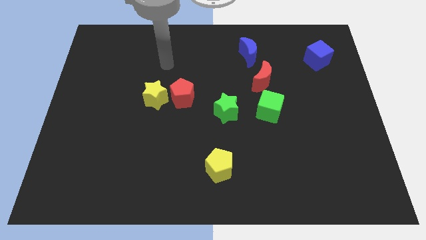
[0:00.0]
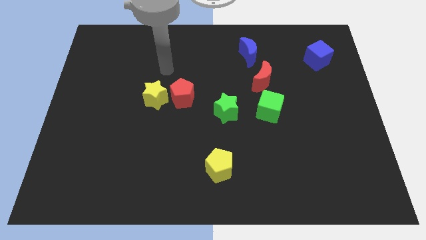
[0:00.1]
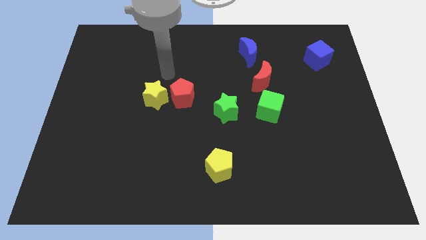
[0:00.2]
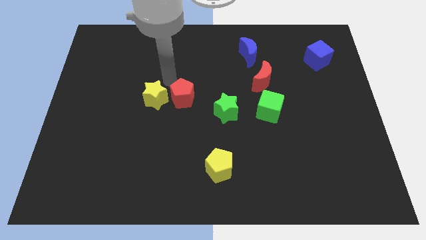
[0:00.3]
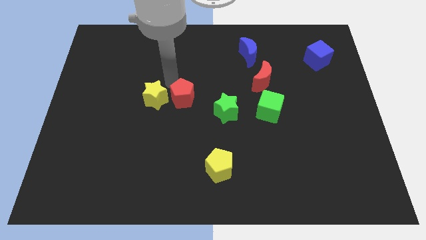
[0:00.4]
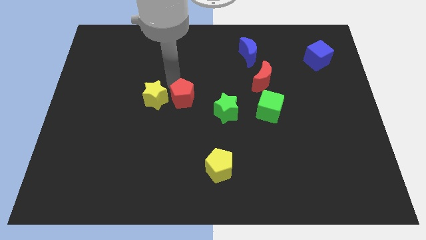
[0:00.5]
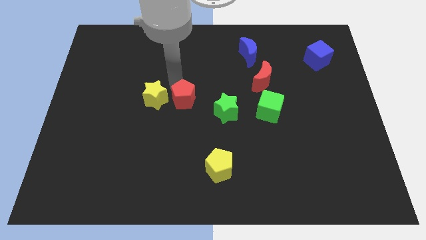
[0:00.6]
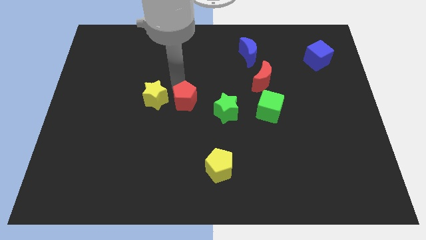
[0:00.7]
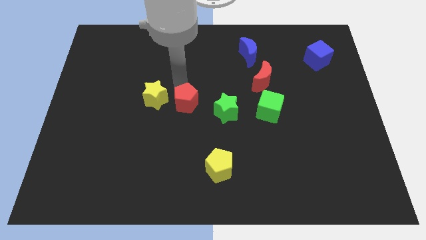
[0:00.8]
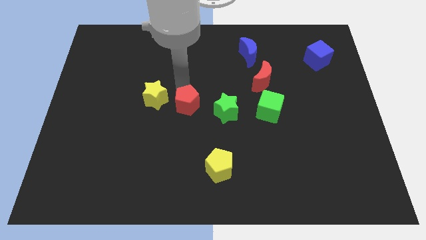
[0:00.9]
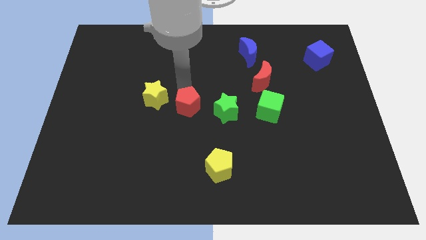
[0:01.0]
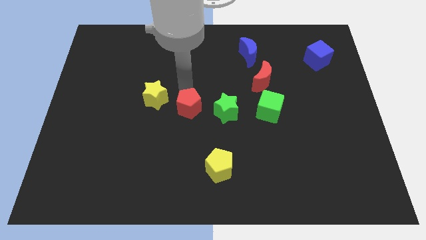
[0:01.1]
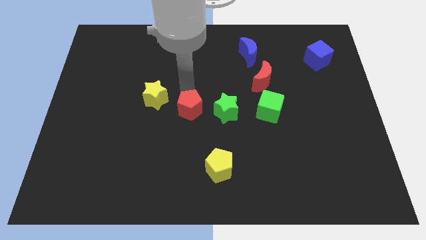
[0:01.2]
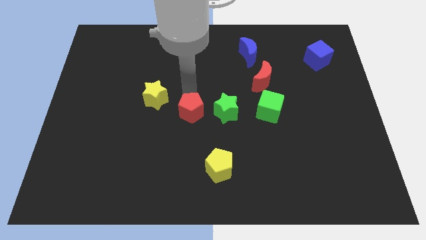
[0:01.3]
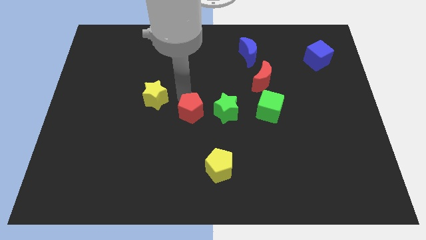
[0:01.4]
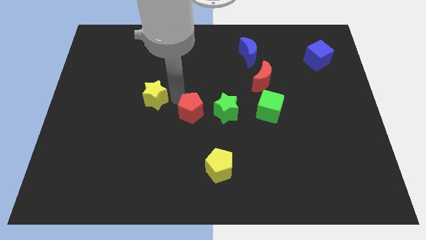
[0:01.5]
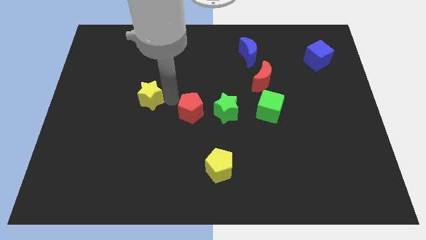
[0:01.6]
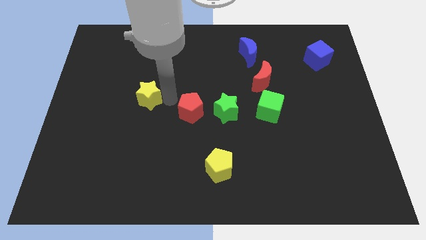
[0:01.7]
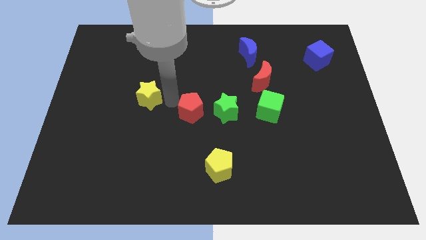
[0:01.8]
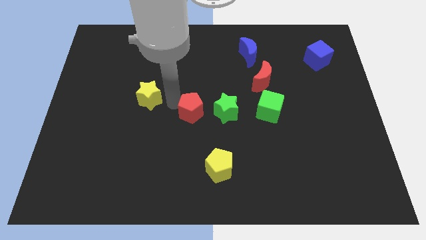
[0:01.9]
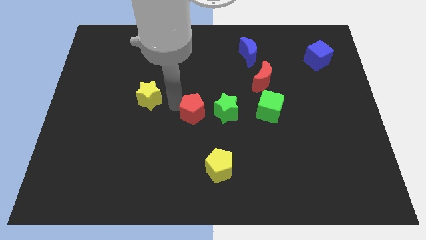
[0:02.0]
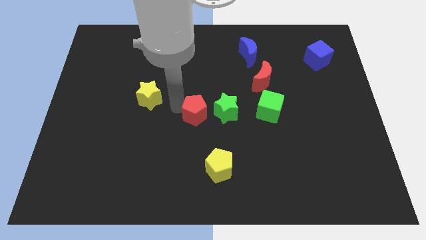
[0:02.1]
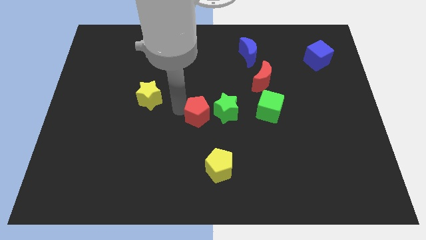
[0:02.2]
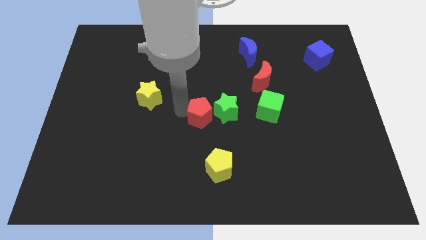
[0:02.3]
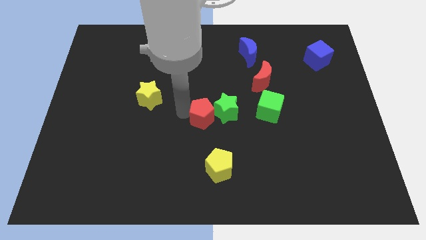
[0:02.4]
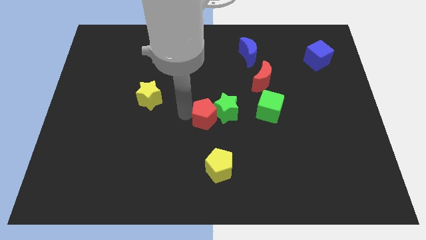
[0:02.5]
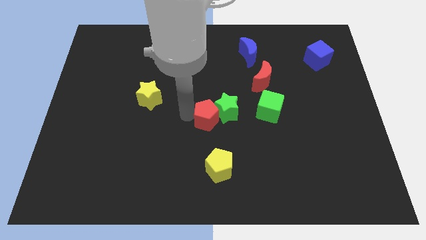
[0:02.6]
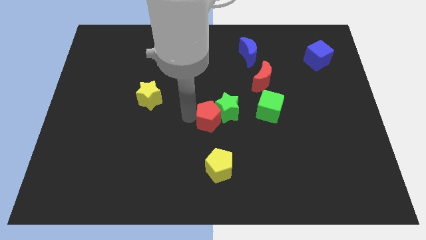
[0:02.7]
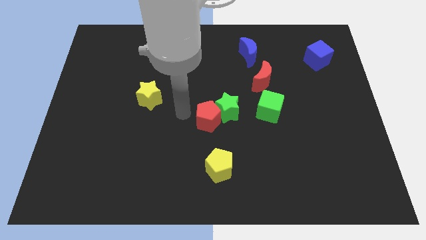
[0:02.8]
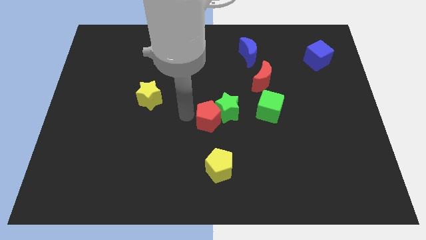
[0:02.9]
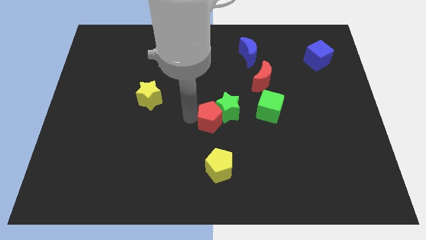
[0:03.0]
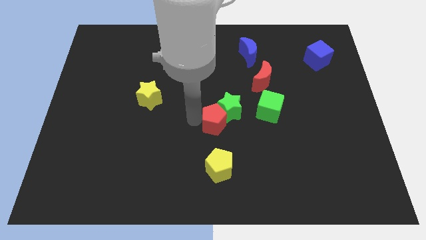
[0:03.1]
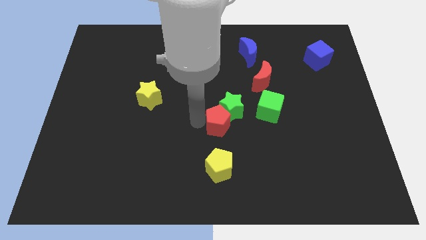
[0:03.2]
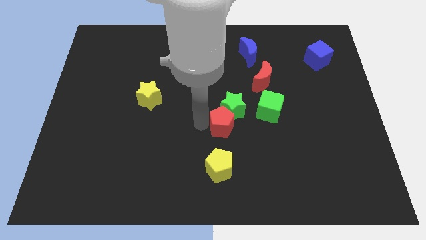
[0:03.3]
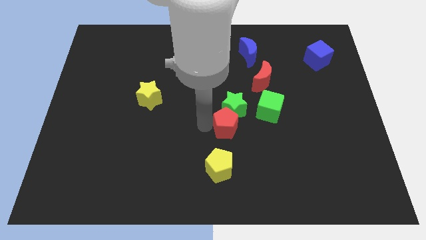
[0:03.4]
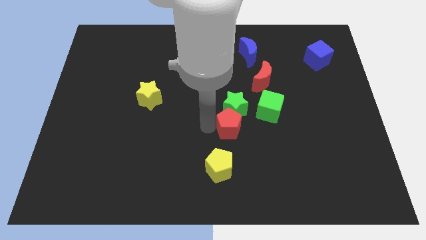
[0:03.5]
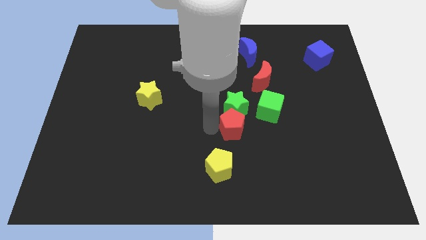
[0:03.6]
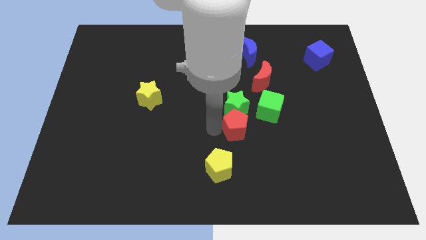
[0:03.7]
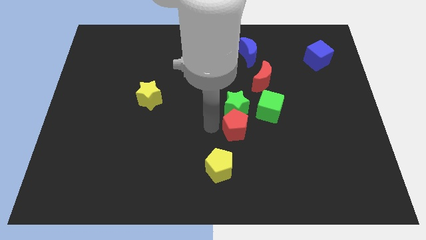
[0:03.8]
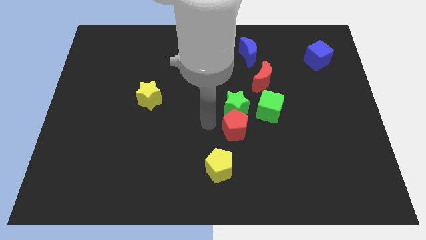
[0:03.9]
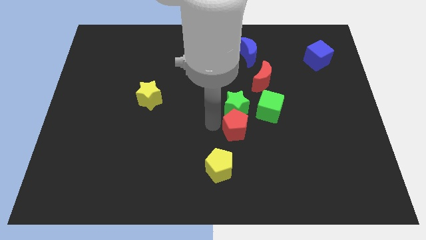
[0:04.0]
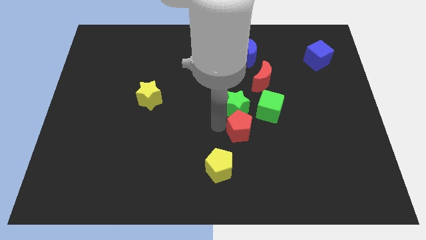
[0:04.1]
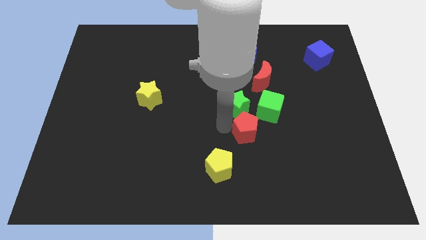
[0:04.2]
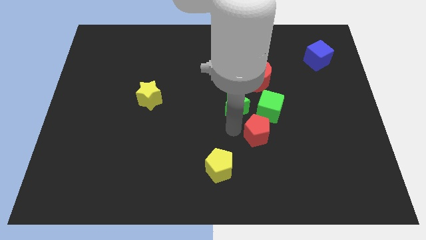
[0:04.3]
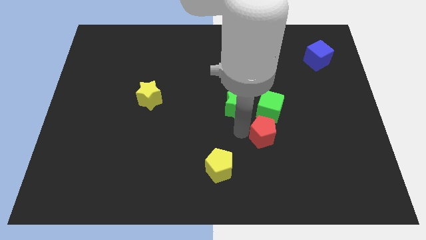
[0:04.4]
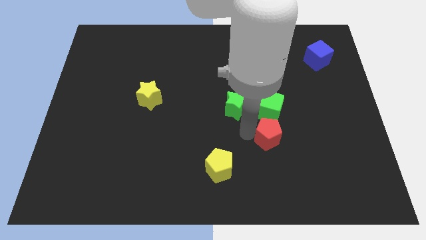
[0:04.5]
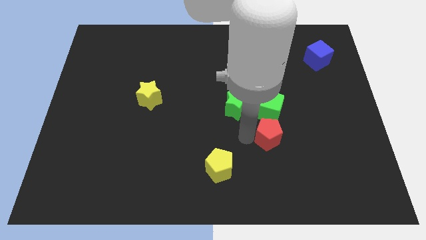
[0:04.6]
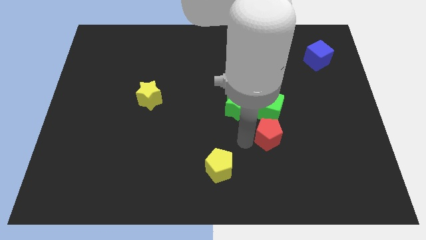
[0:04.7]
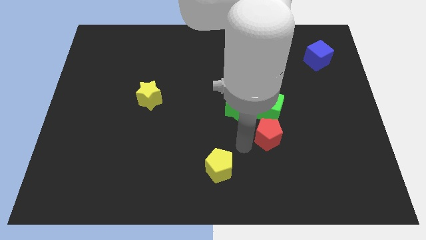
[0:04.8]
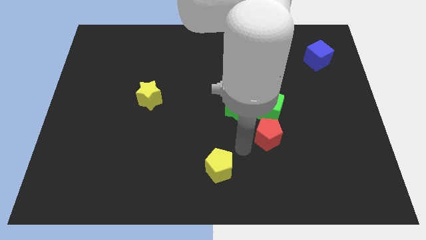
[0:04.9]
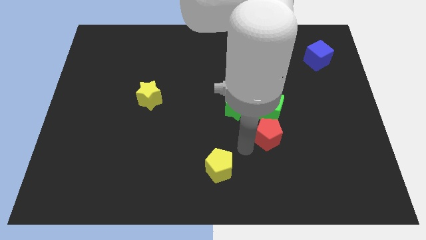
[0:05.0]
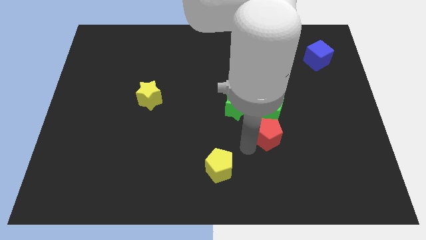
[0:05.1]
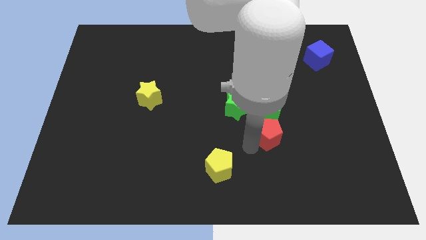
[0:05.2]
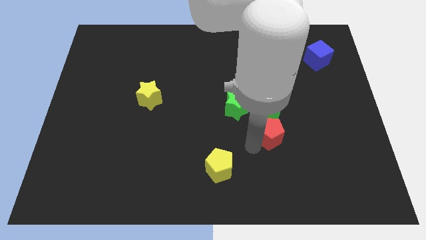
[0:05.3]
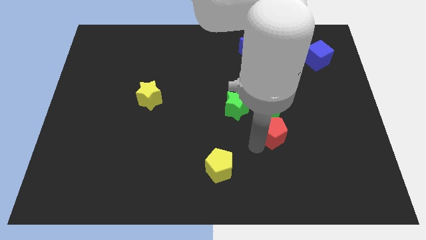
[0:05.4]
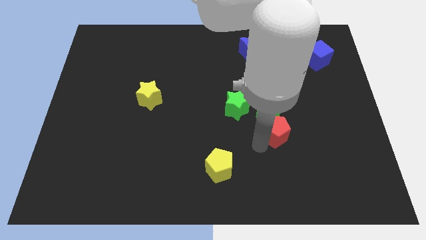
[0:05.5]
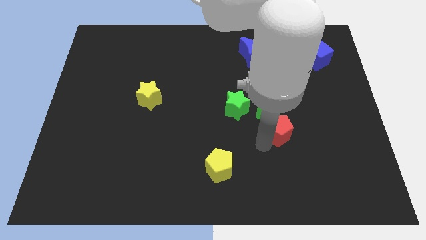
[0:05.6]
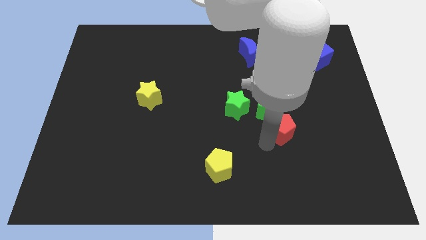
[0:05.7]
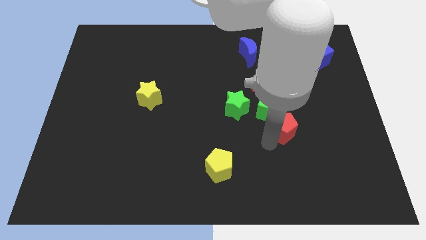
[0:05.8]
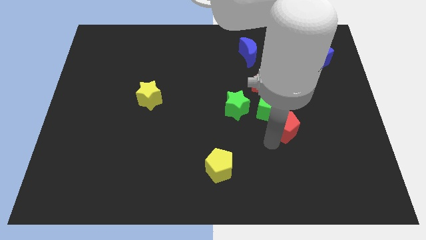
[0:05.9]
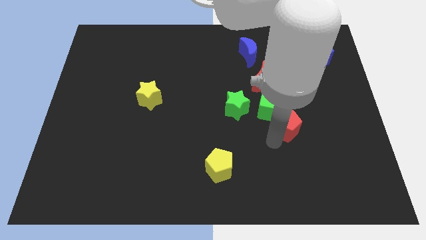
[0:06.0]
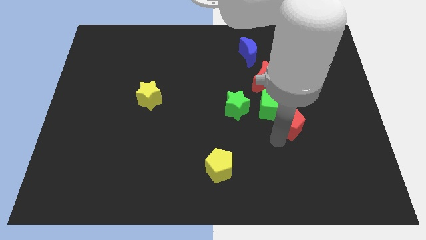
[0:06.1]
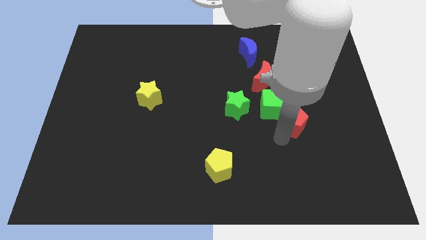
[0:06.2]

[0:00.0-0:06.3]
move the red pentagon to the right side of the green cube

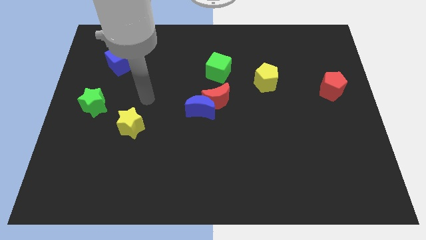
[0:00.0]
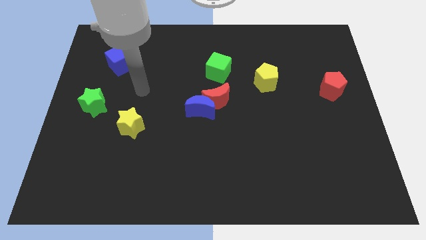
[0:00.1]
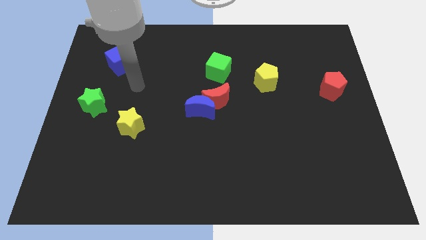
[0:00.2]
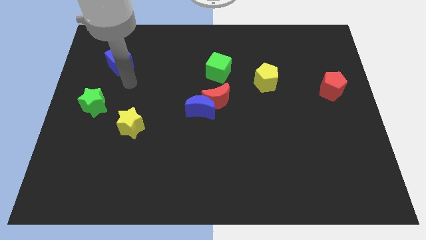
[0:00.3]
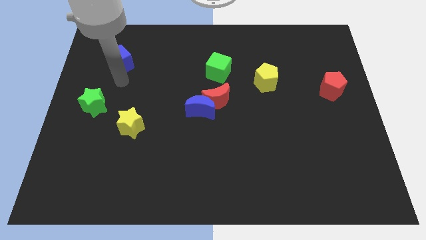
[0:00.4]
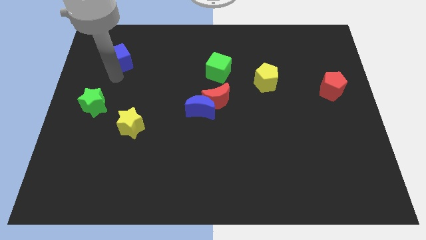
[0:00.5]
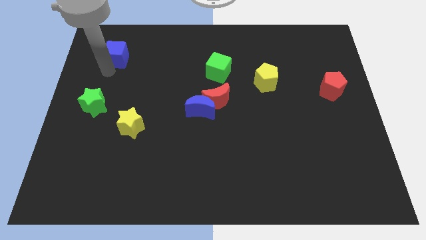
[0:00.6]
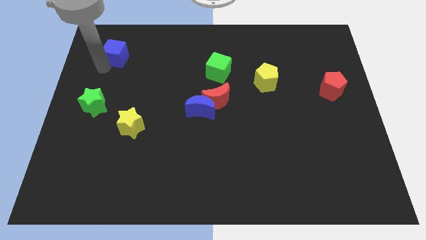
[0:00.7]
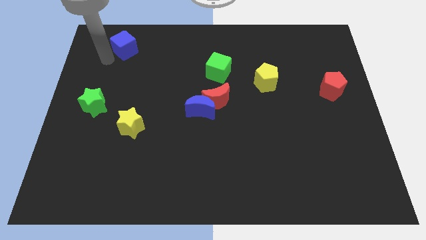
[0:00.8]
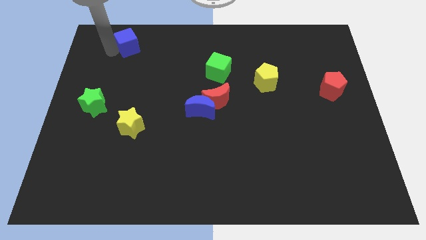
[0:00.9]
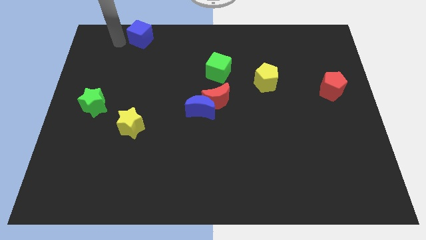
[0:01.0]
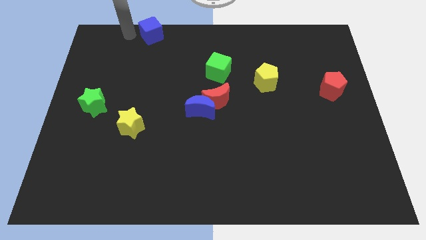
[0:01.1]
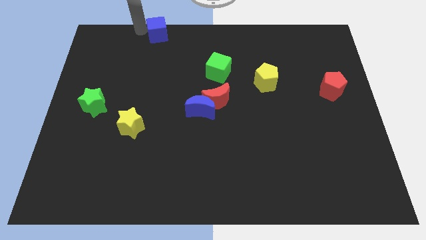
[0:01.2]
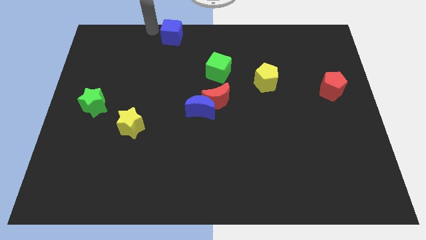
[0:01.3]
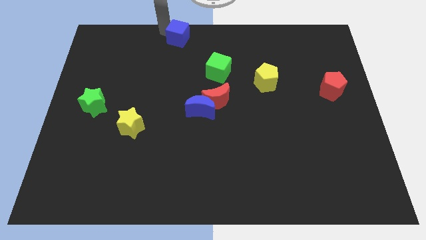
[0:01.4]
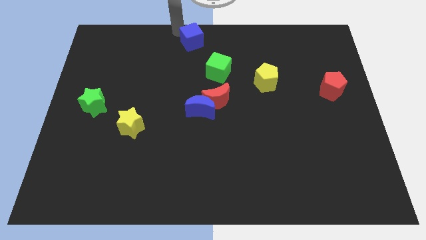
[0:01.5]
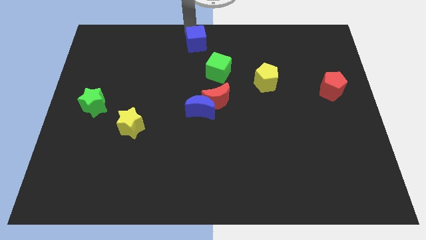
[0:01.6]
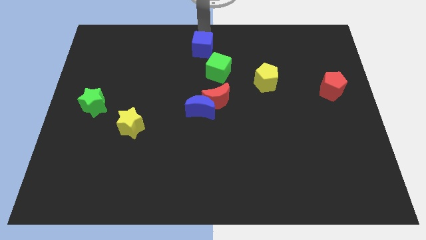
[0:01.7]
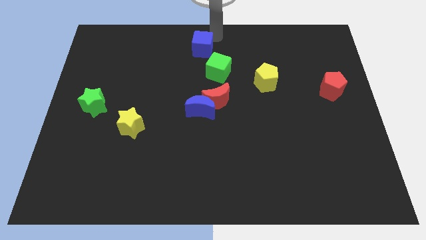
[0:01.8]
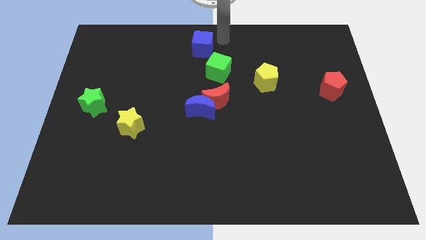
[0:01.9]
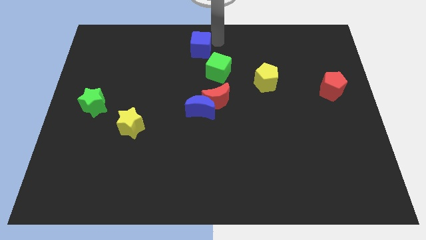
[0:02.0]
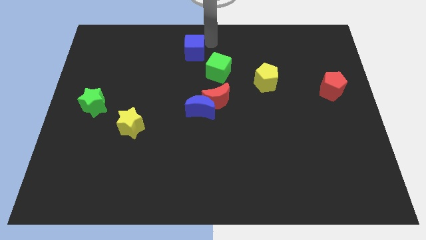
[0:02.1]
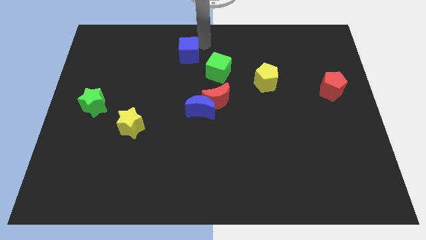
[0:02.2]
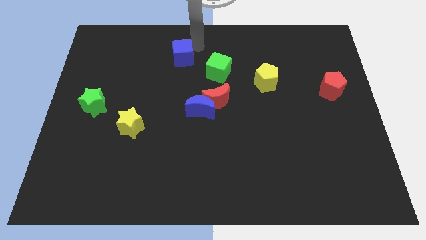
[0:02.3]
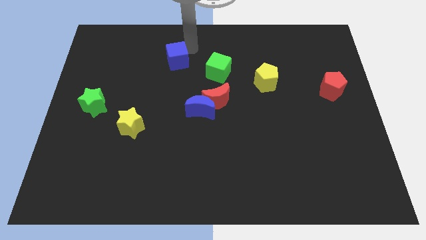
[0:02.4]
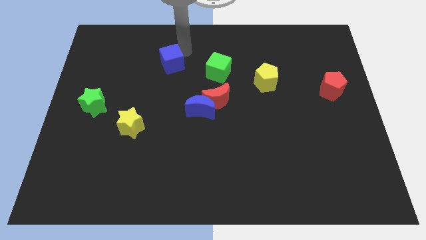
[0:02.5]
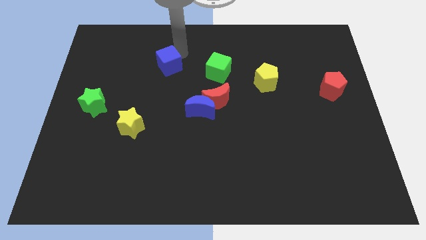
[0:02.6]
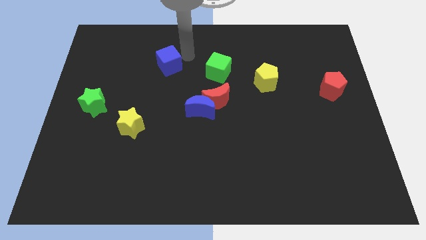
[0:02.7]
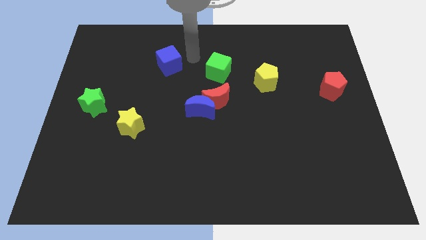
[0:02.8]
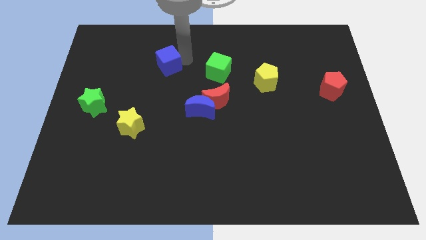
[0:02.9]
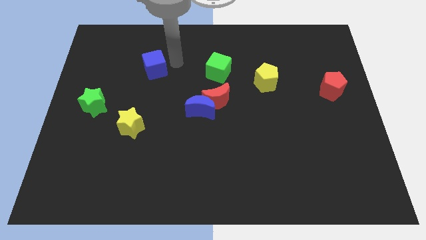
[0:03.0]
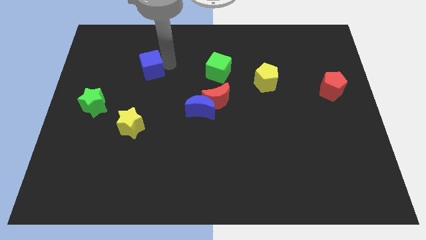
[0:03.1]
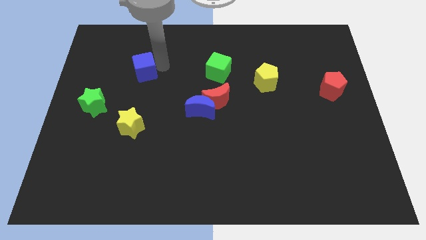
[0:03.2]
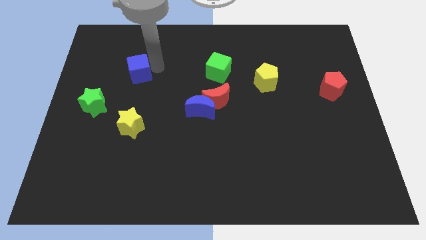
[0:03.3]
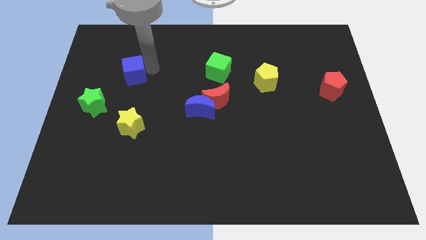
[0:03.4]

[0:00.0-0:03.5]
move the blue cube to the top side of the yellow star
